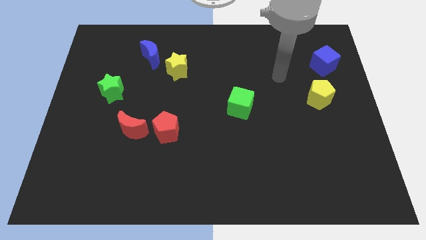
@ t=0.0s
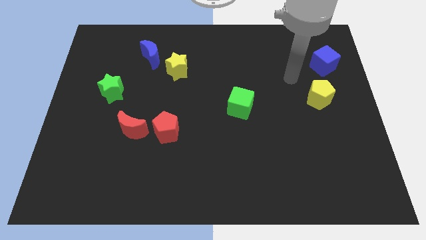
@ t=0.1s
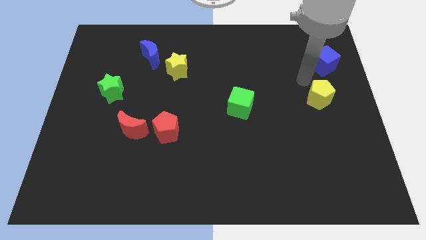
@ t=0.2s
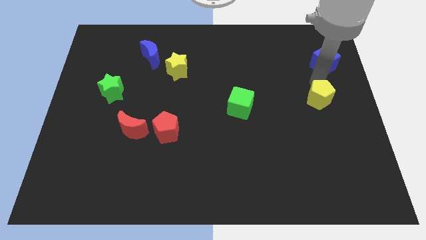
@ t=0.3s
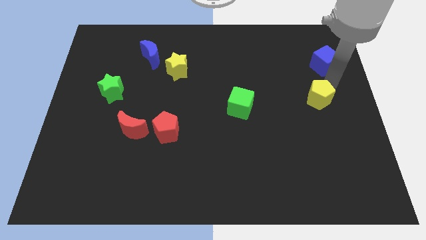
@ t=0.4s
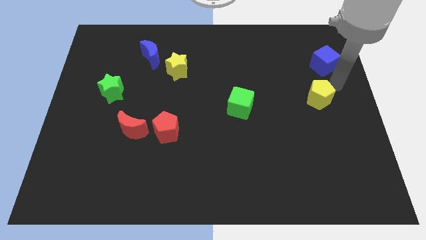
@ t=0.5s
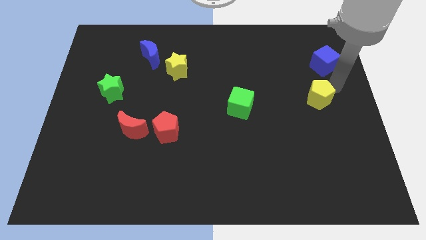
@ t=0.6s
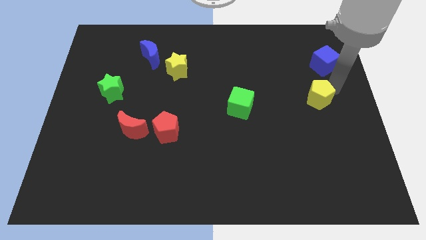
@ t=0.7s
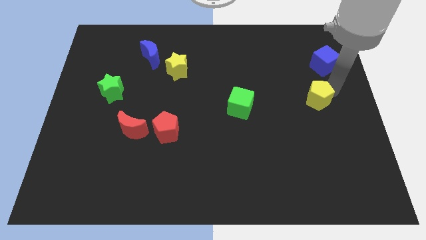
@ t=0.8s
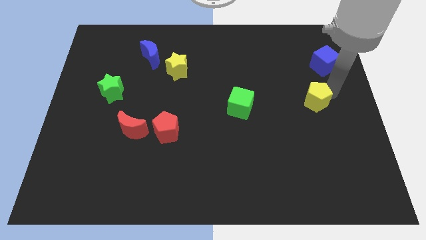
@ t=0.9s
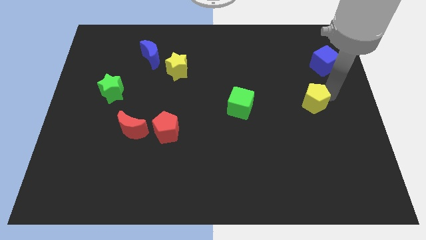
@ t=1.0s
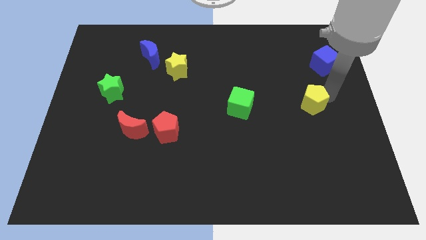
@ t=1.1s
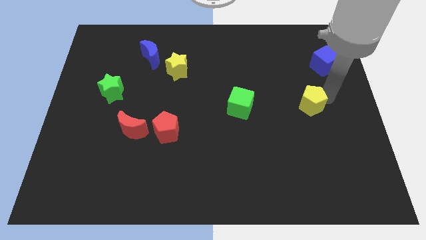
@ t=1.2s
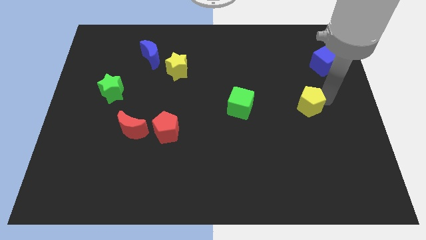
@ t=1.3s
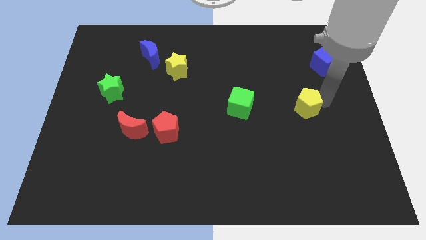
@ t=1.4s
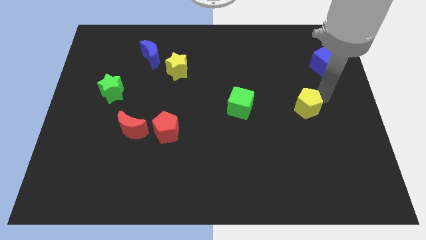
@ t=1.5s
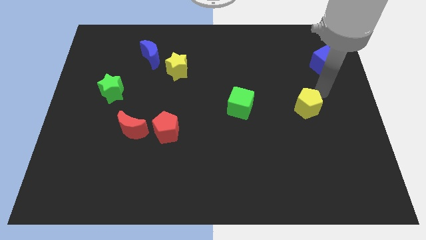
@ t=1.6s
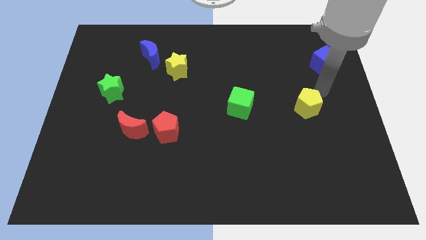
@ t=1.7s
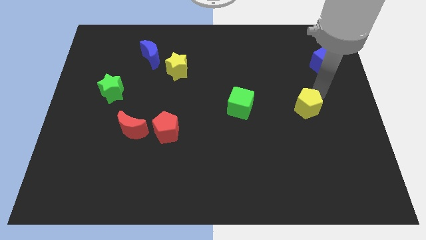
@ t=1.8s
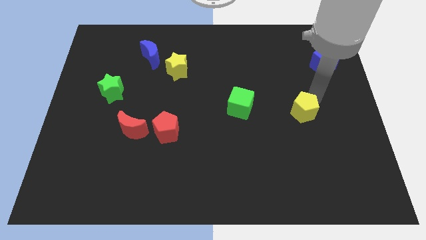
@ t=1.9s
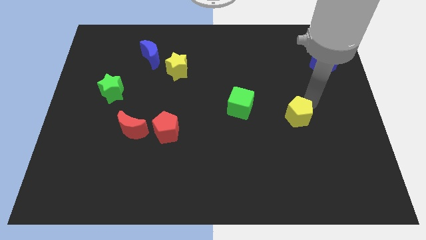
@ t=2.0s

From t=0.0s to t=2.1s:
push the yellow pentagon somewhat down and then to the left

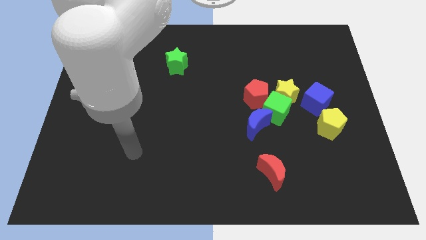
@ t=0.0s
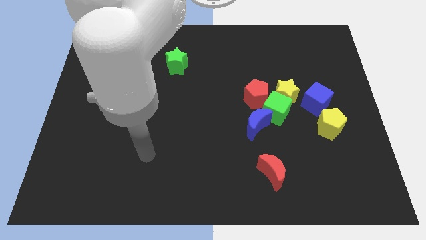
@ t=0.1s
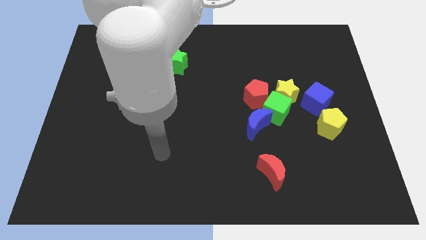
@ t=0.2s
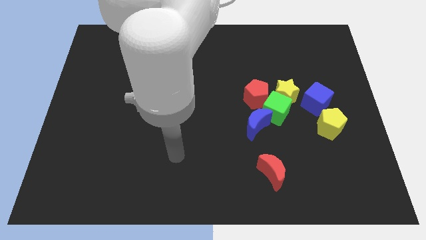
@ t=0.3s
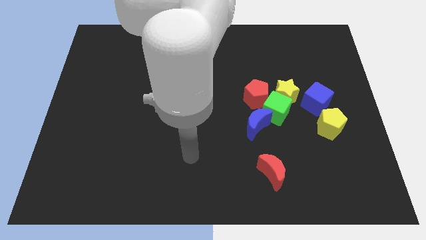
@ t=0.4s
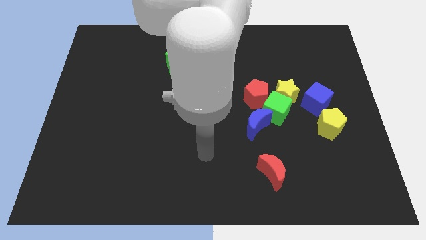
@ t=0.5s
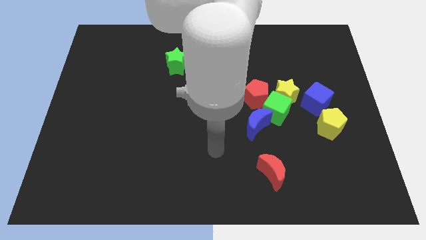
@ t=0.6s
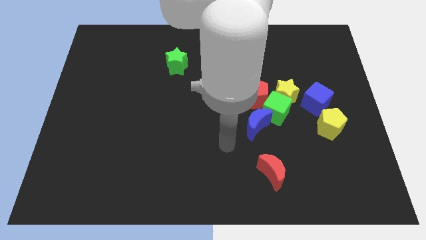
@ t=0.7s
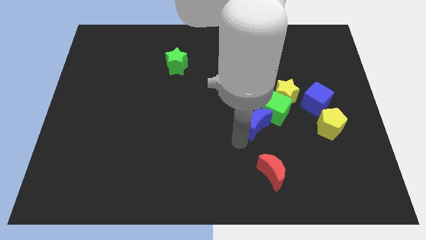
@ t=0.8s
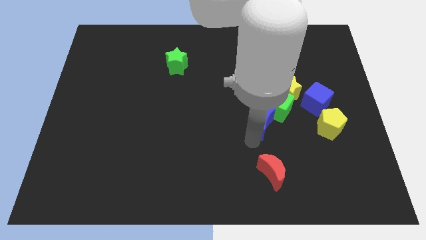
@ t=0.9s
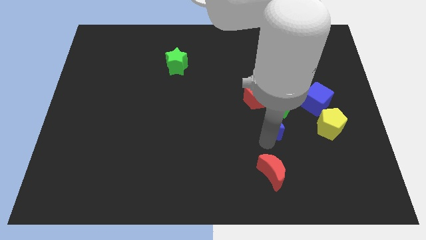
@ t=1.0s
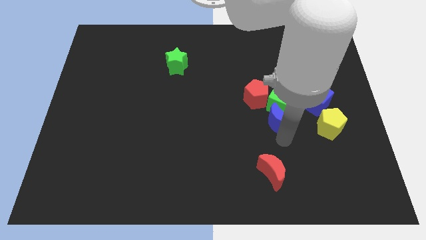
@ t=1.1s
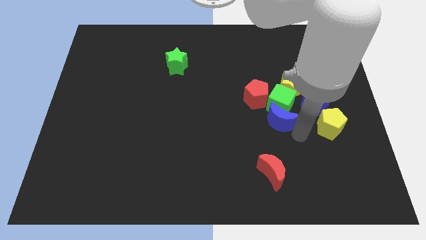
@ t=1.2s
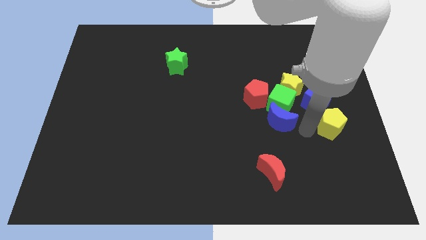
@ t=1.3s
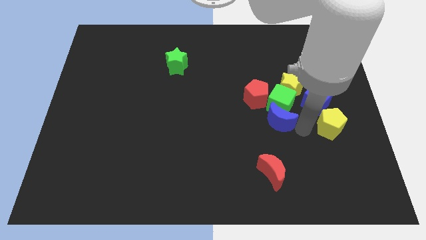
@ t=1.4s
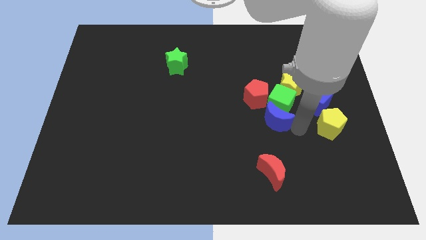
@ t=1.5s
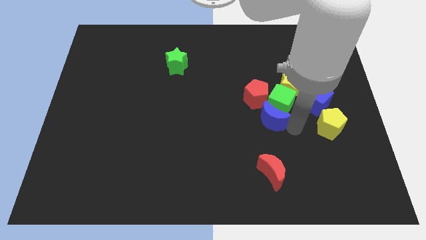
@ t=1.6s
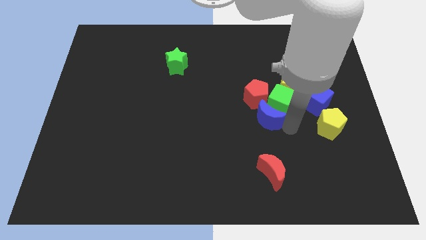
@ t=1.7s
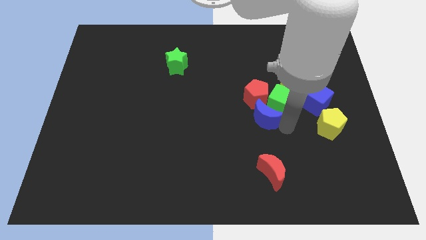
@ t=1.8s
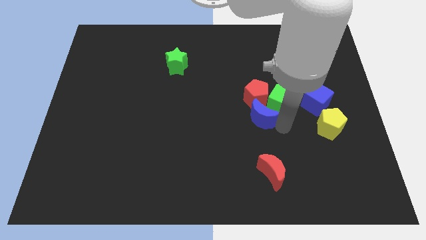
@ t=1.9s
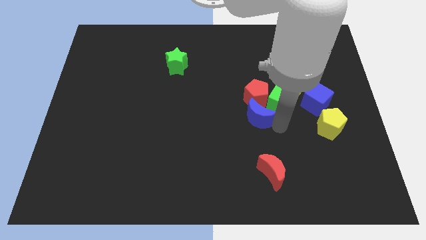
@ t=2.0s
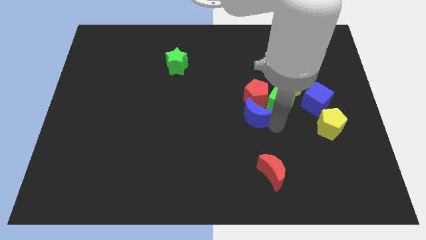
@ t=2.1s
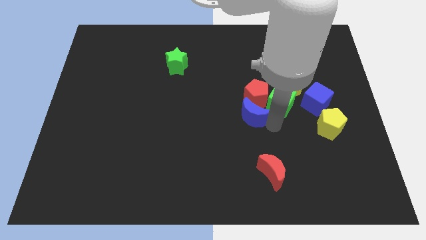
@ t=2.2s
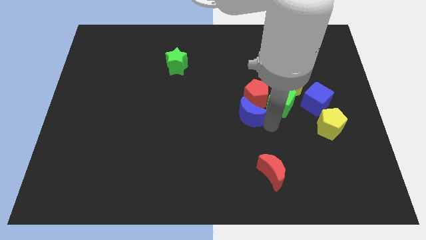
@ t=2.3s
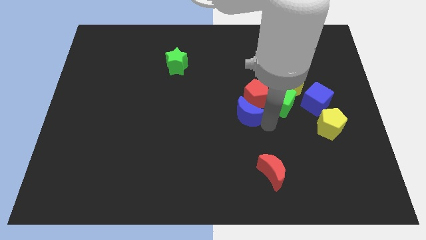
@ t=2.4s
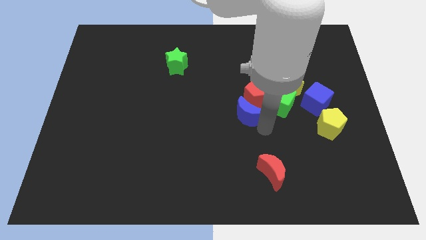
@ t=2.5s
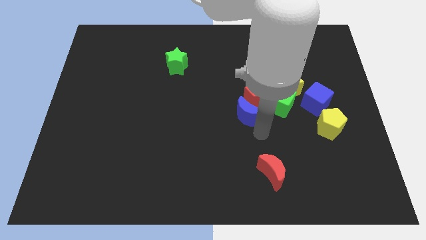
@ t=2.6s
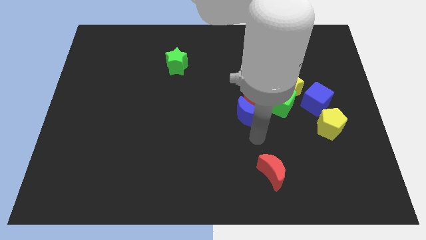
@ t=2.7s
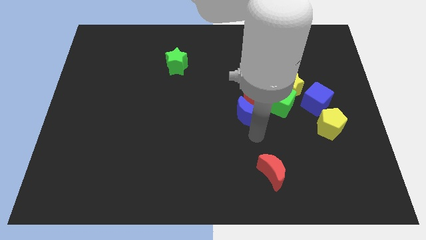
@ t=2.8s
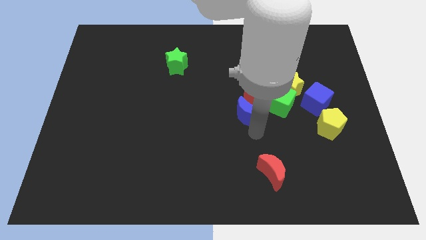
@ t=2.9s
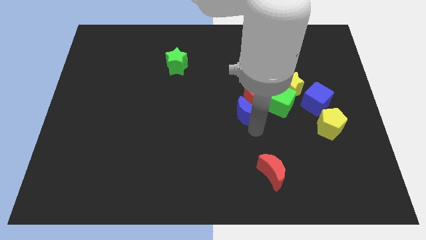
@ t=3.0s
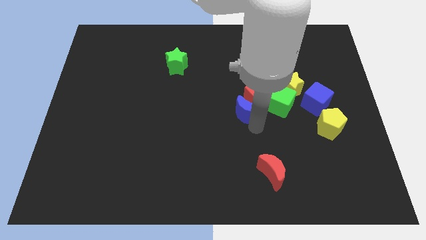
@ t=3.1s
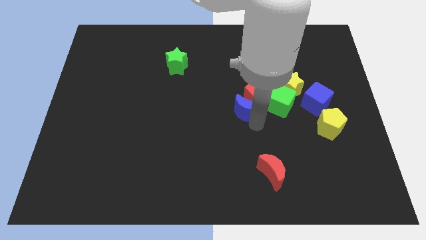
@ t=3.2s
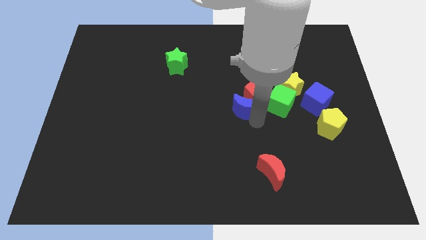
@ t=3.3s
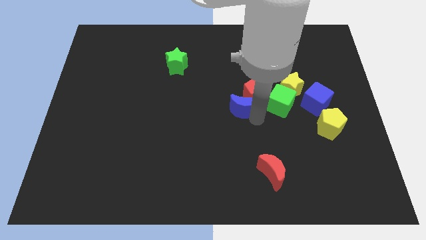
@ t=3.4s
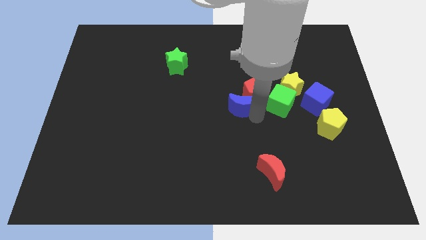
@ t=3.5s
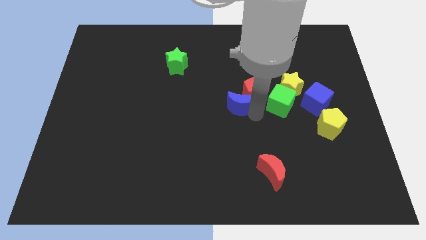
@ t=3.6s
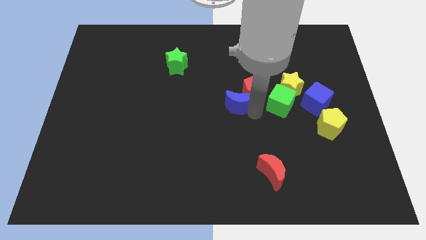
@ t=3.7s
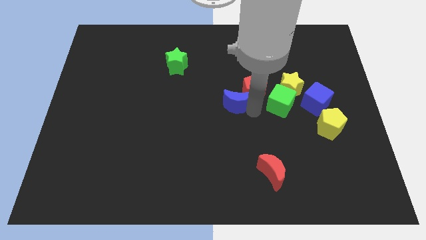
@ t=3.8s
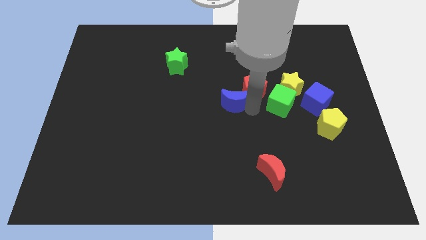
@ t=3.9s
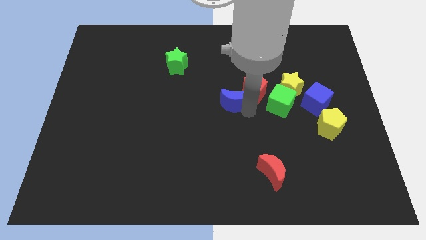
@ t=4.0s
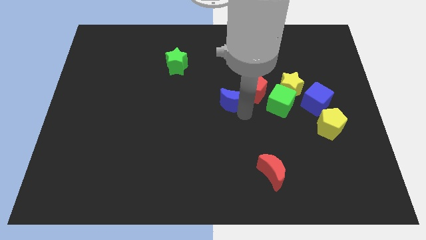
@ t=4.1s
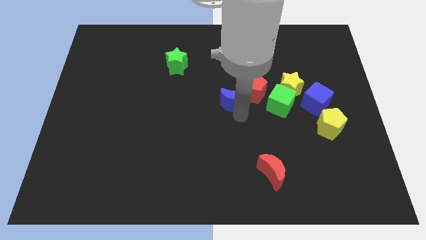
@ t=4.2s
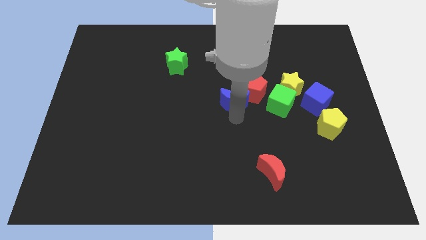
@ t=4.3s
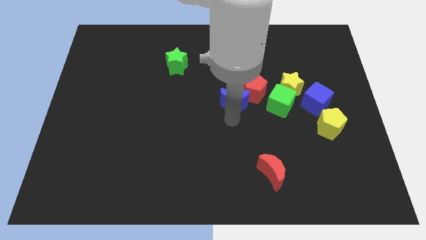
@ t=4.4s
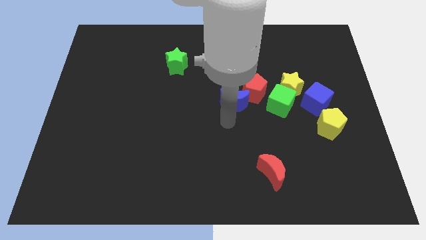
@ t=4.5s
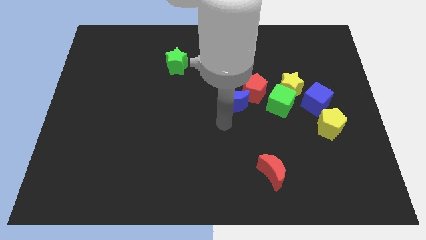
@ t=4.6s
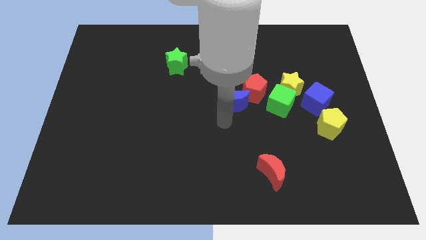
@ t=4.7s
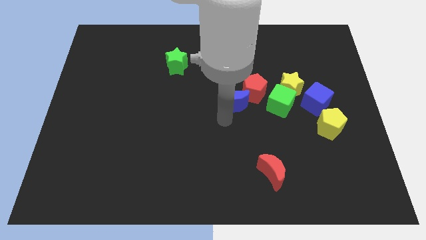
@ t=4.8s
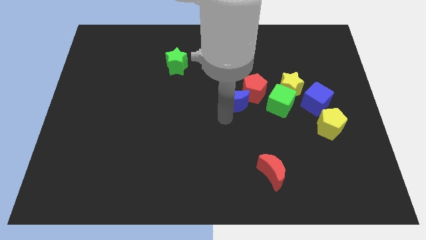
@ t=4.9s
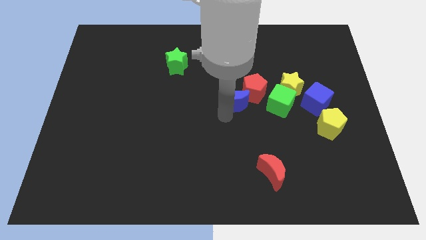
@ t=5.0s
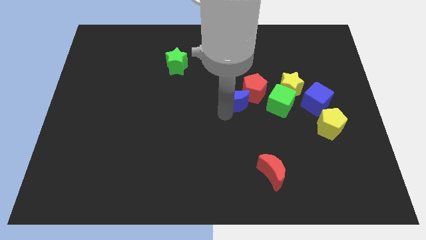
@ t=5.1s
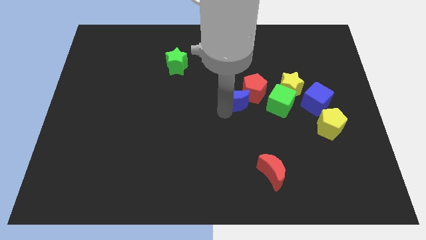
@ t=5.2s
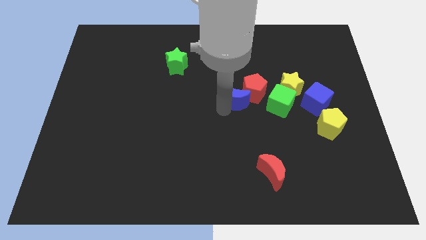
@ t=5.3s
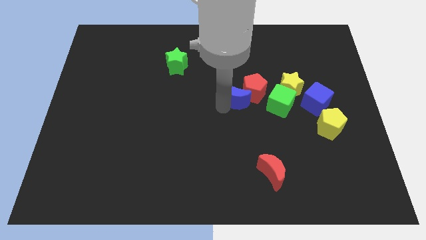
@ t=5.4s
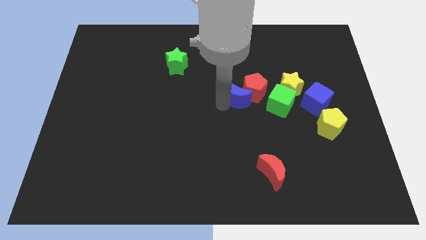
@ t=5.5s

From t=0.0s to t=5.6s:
slide the blue moon up slightly

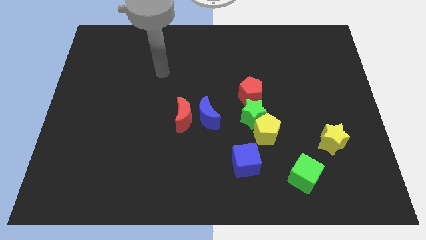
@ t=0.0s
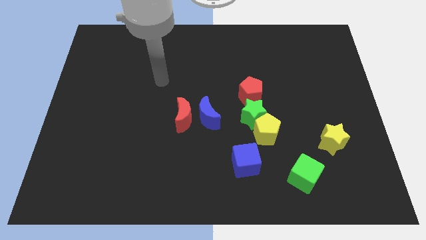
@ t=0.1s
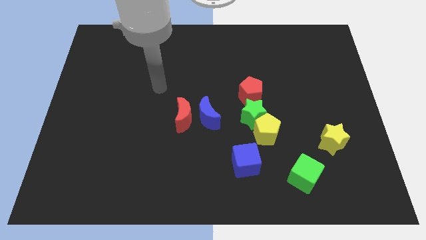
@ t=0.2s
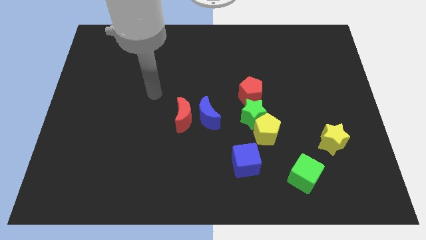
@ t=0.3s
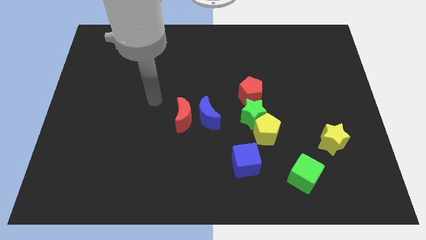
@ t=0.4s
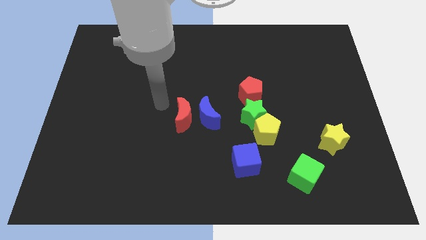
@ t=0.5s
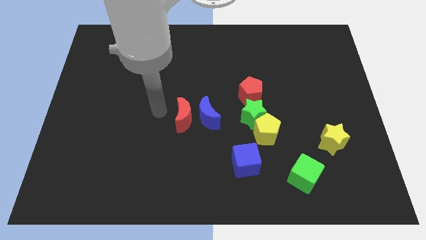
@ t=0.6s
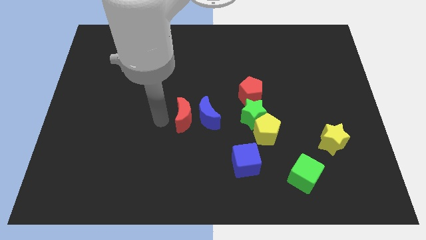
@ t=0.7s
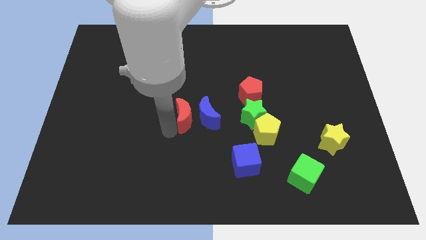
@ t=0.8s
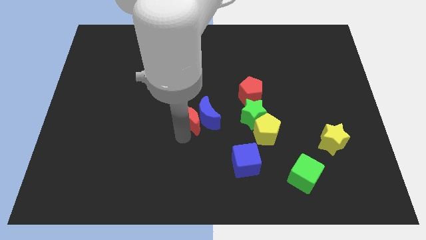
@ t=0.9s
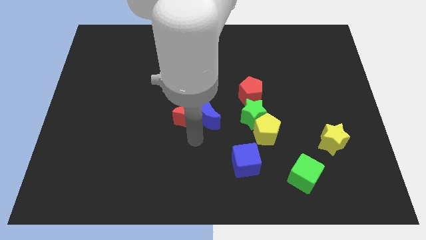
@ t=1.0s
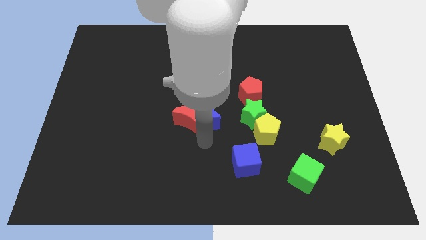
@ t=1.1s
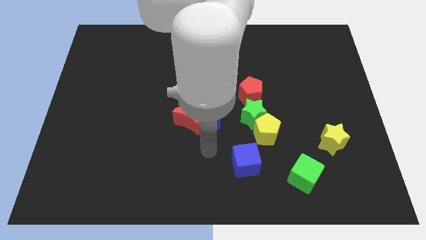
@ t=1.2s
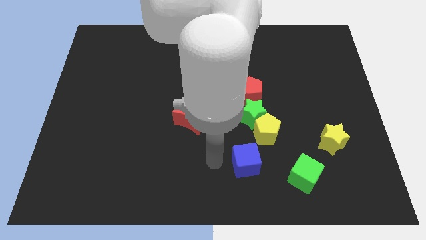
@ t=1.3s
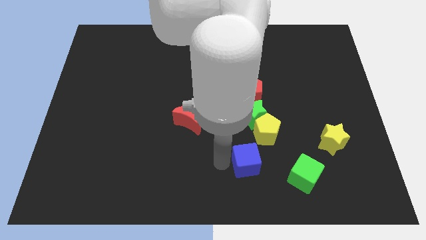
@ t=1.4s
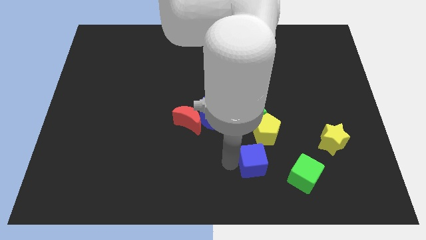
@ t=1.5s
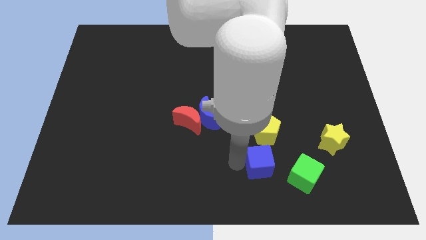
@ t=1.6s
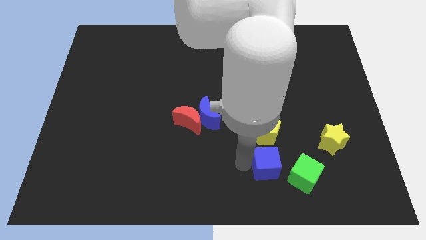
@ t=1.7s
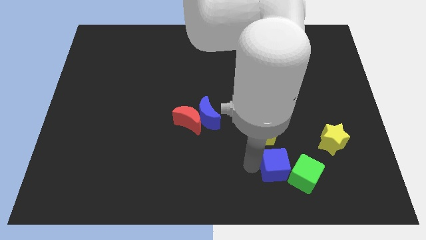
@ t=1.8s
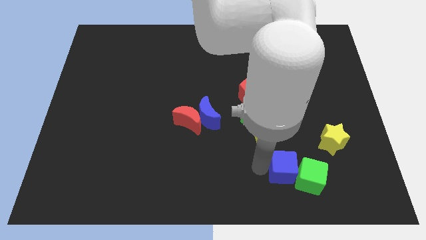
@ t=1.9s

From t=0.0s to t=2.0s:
slightly push the blue cube right
